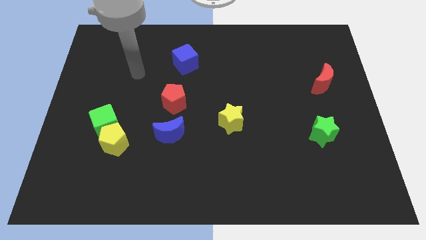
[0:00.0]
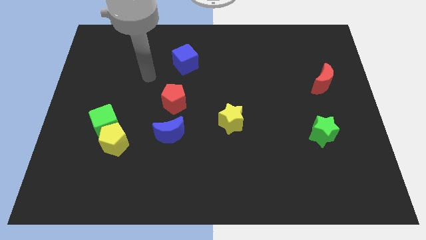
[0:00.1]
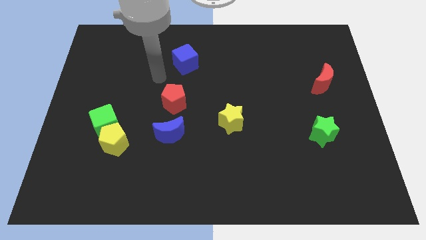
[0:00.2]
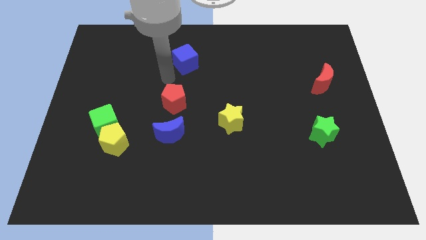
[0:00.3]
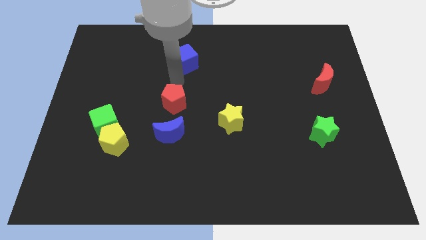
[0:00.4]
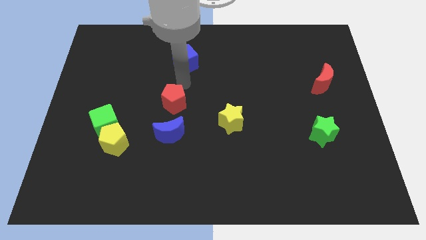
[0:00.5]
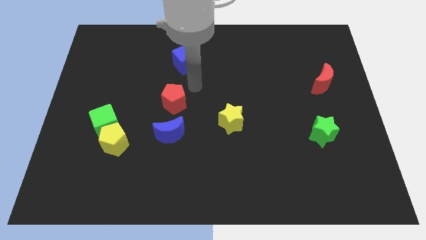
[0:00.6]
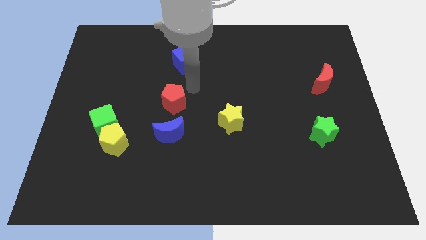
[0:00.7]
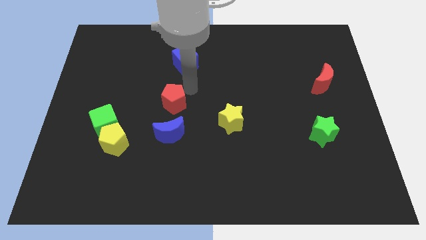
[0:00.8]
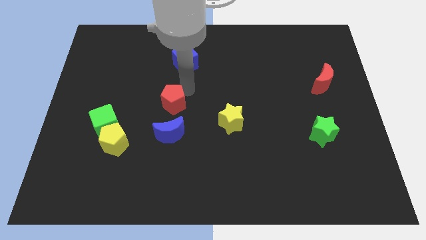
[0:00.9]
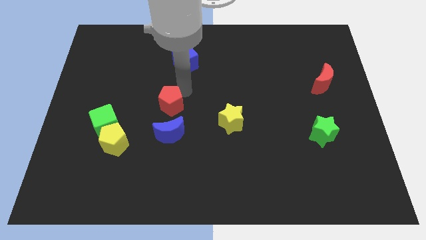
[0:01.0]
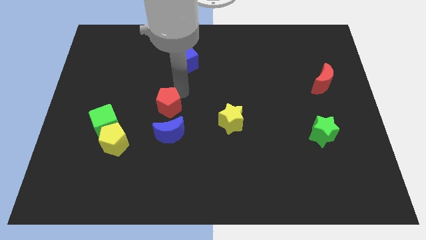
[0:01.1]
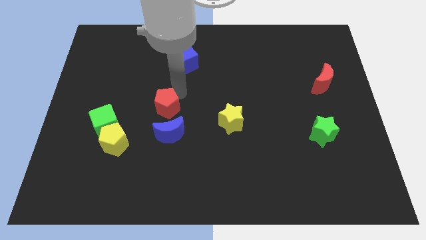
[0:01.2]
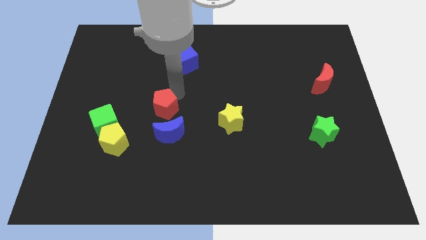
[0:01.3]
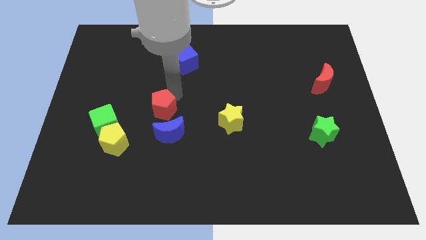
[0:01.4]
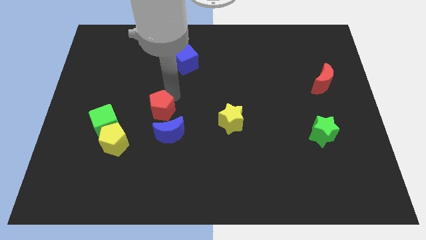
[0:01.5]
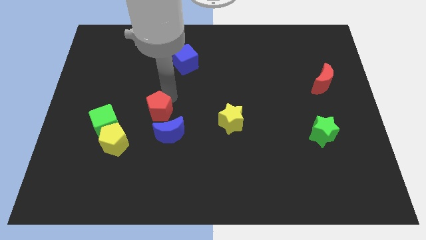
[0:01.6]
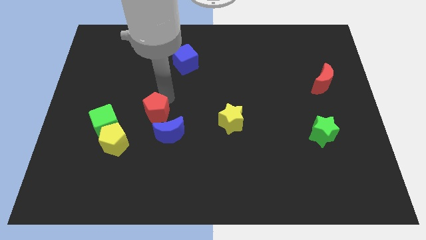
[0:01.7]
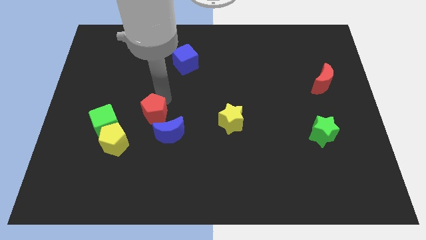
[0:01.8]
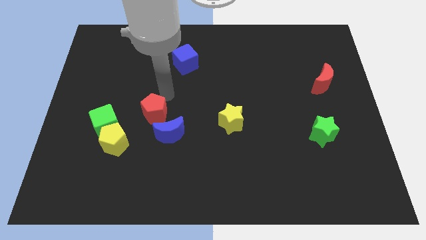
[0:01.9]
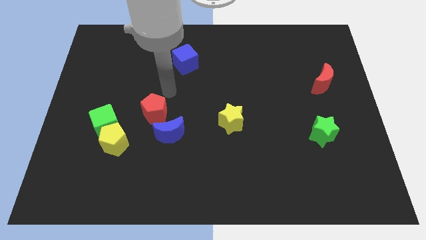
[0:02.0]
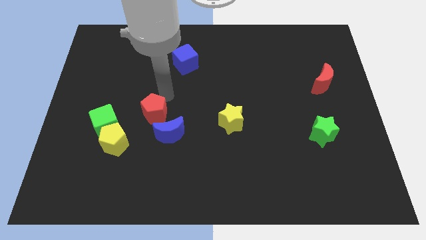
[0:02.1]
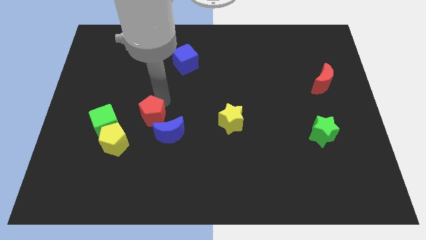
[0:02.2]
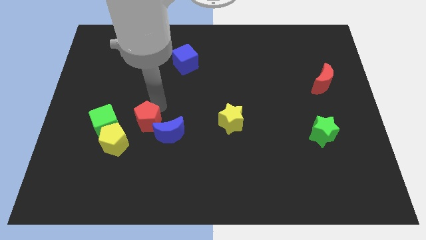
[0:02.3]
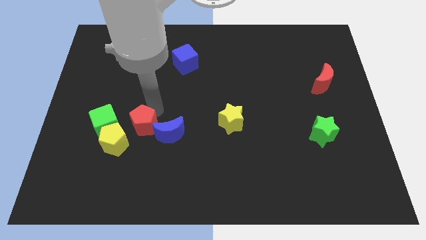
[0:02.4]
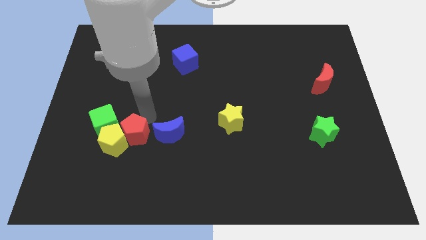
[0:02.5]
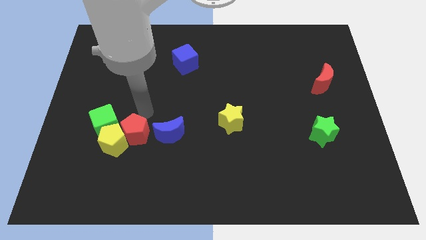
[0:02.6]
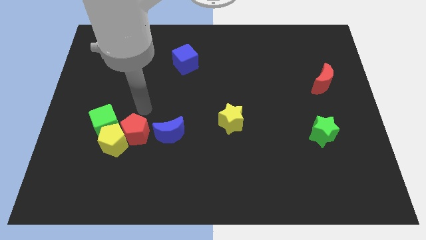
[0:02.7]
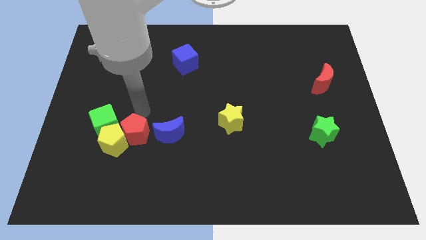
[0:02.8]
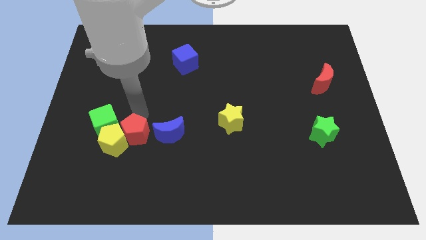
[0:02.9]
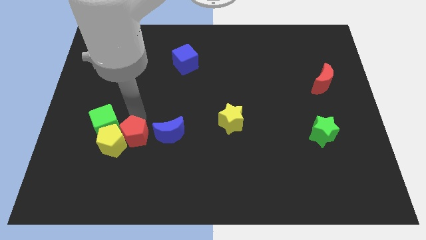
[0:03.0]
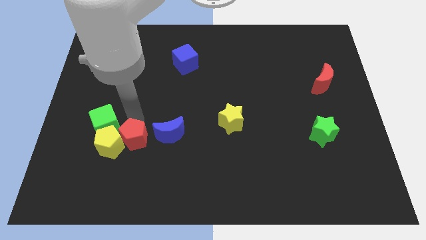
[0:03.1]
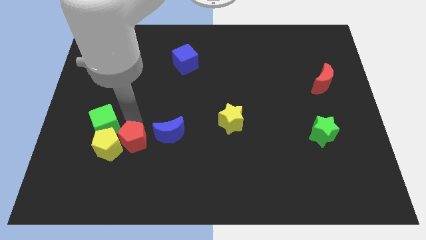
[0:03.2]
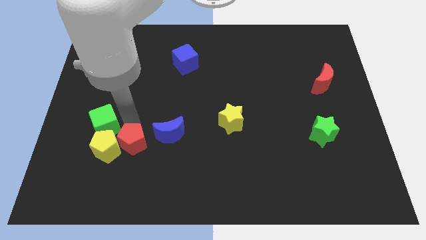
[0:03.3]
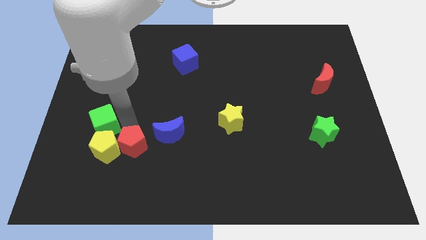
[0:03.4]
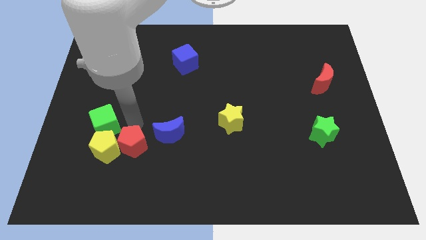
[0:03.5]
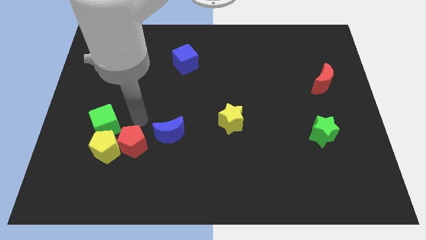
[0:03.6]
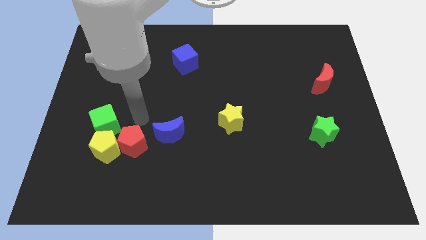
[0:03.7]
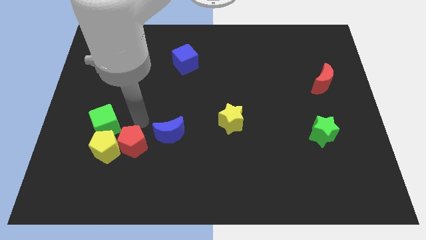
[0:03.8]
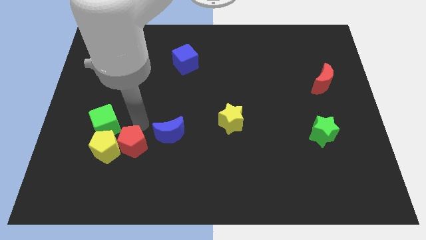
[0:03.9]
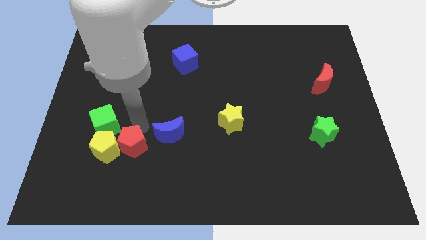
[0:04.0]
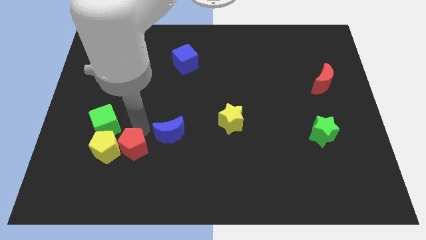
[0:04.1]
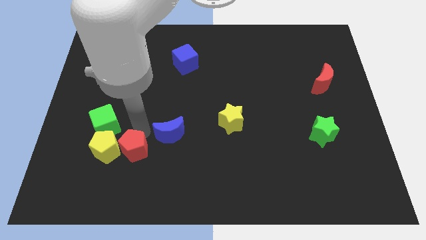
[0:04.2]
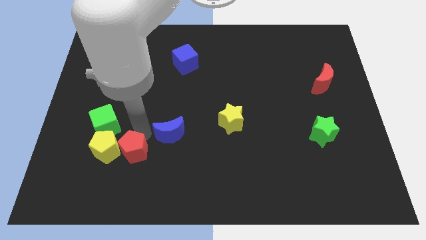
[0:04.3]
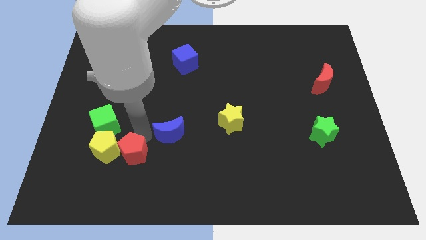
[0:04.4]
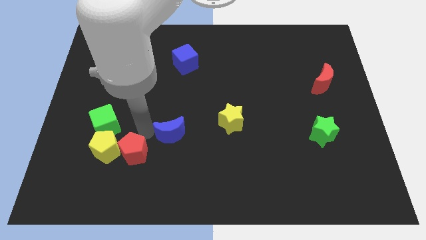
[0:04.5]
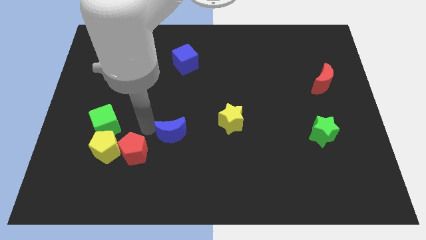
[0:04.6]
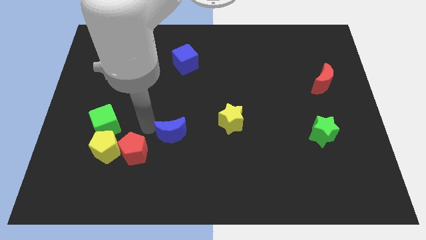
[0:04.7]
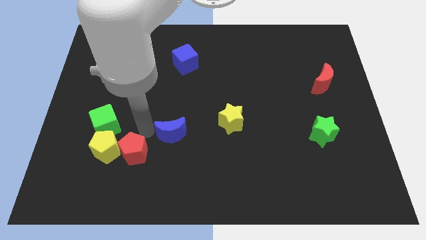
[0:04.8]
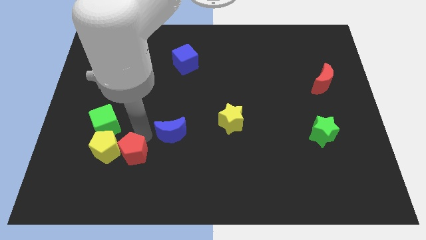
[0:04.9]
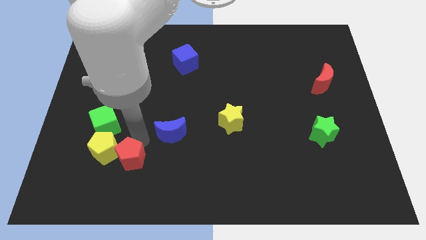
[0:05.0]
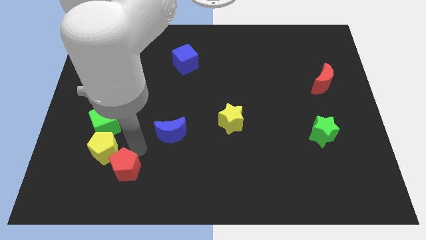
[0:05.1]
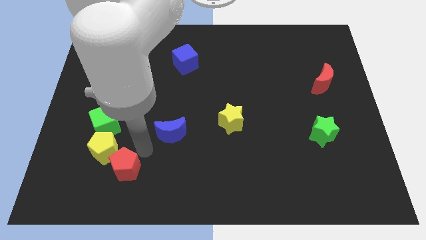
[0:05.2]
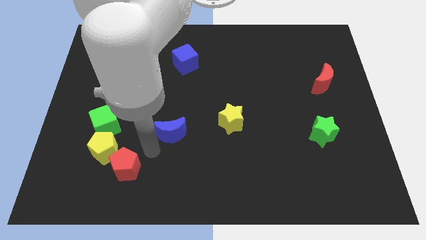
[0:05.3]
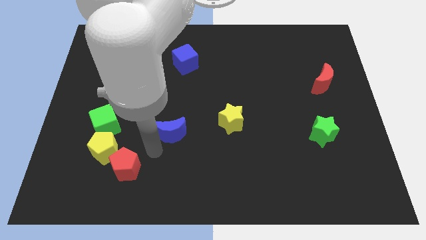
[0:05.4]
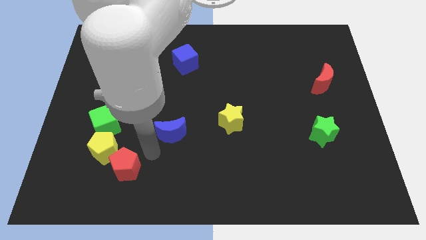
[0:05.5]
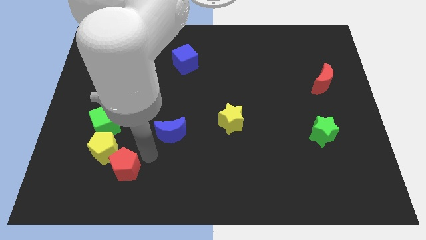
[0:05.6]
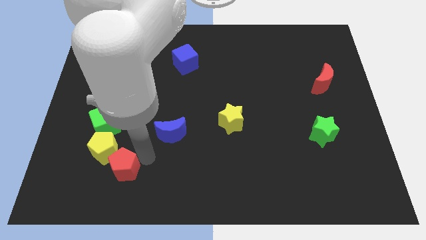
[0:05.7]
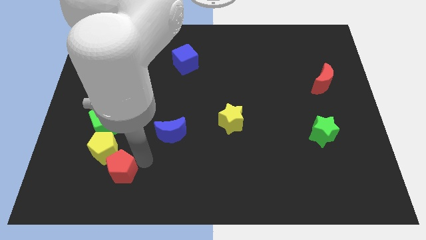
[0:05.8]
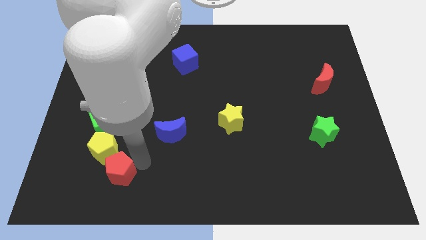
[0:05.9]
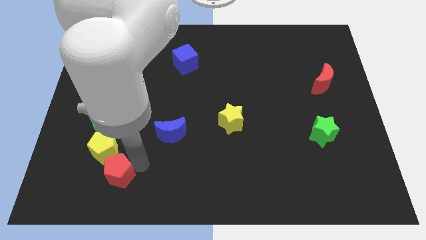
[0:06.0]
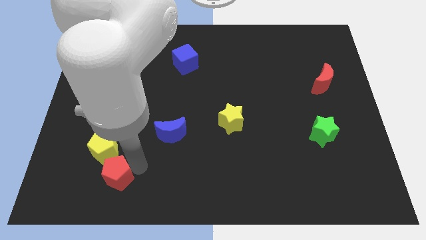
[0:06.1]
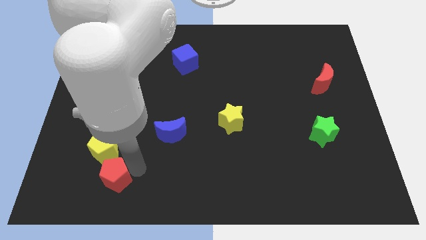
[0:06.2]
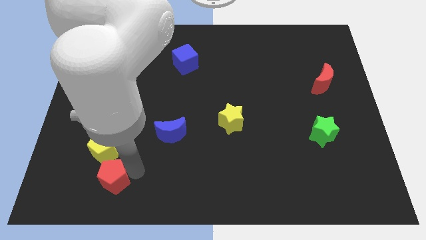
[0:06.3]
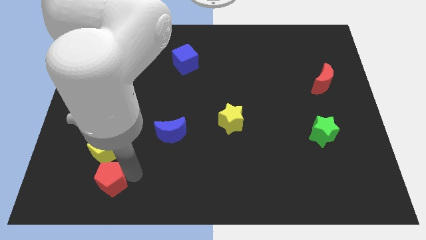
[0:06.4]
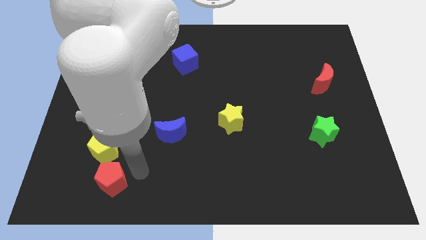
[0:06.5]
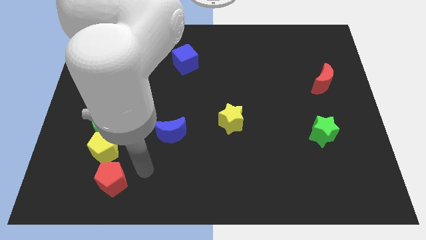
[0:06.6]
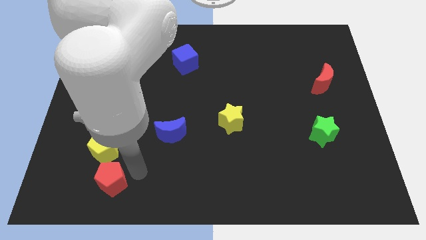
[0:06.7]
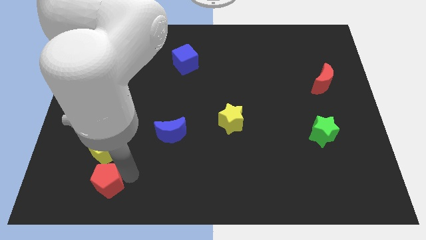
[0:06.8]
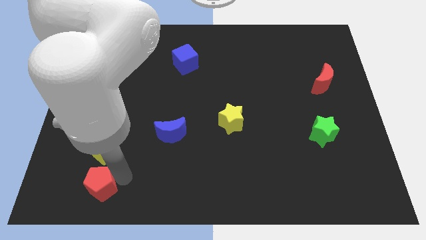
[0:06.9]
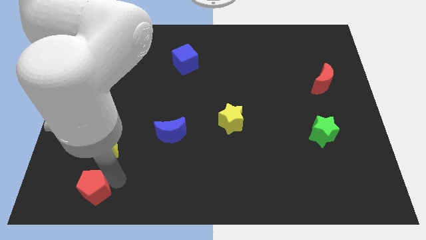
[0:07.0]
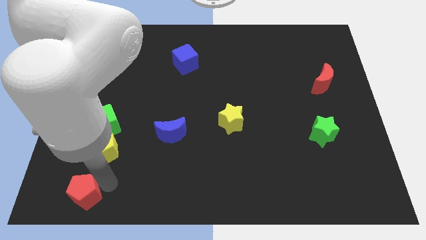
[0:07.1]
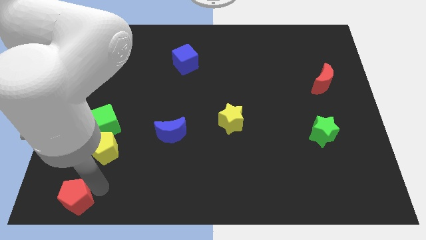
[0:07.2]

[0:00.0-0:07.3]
put the red pentagon to the lower left corner
